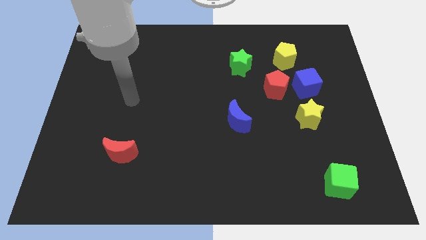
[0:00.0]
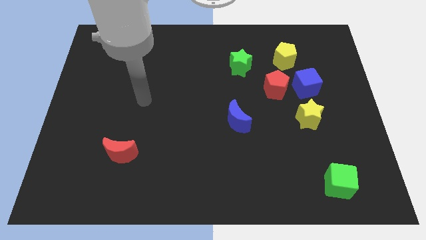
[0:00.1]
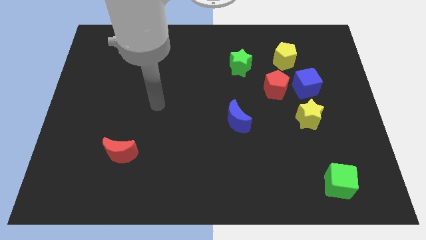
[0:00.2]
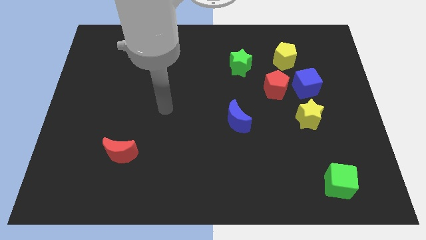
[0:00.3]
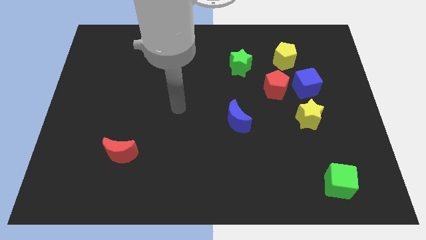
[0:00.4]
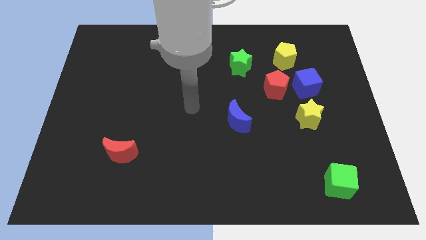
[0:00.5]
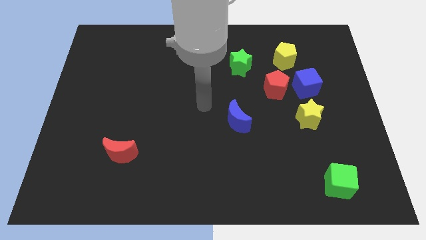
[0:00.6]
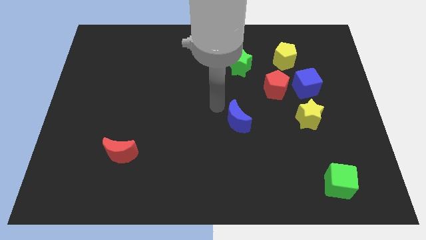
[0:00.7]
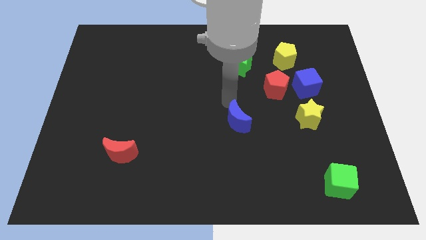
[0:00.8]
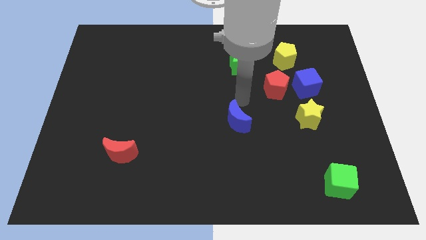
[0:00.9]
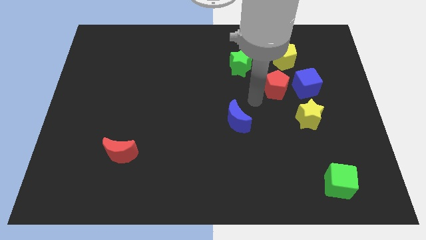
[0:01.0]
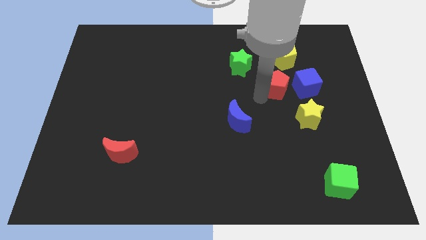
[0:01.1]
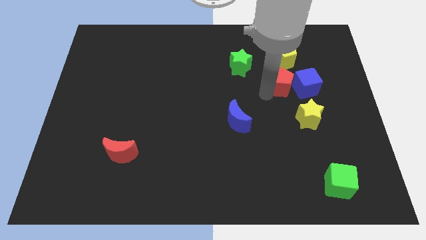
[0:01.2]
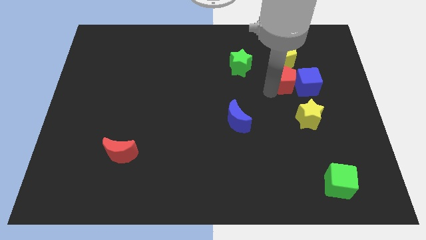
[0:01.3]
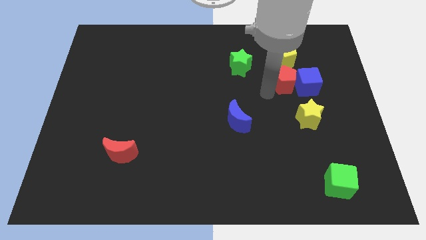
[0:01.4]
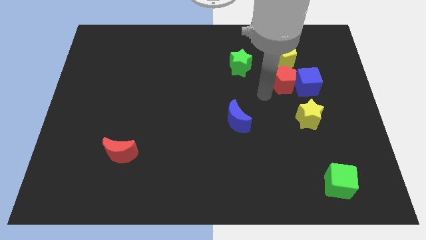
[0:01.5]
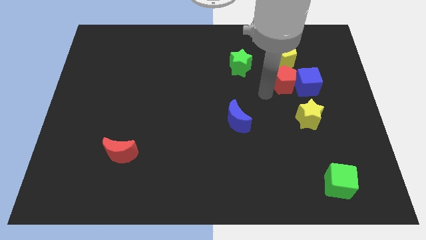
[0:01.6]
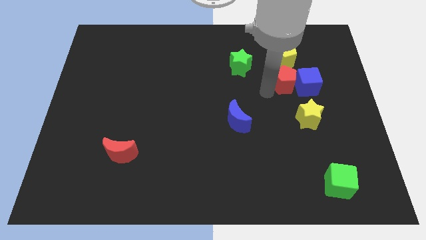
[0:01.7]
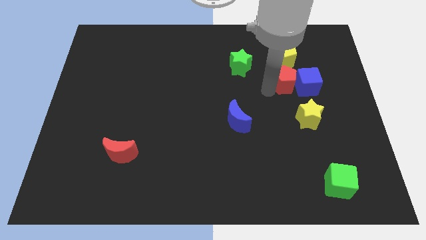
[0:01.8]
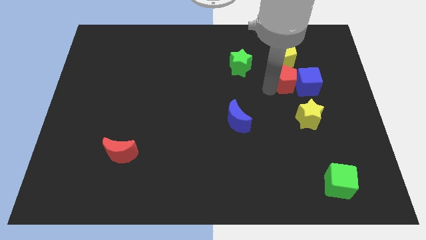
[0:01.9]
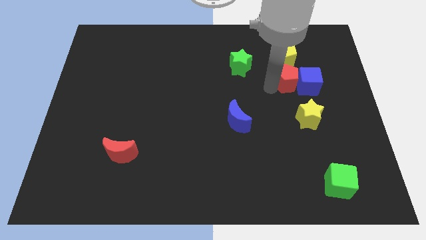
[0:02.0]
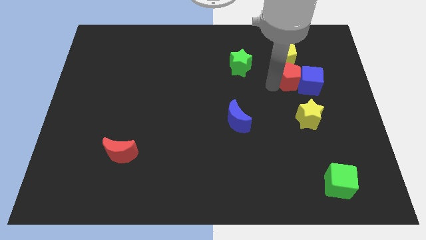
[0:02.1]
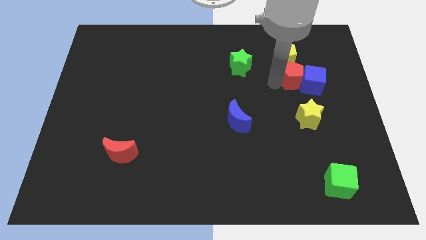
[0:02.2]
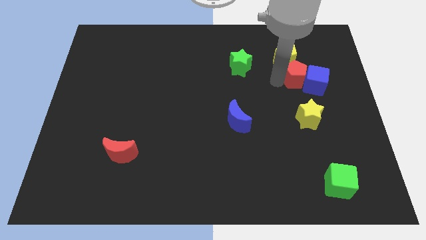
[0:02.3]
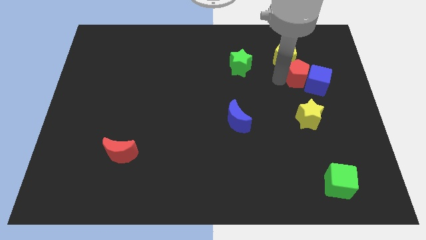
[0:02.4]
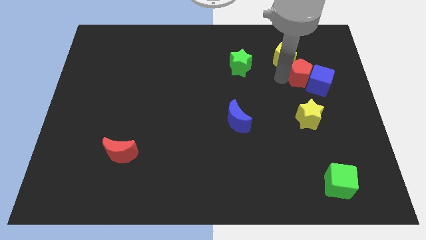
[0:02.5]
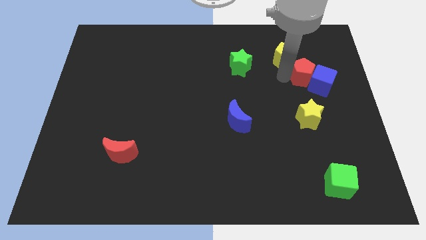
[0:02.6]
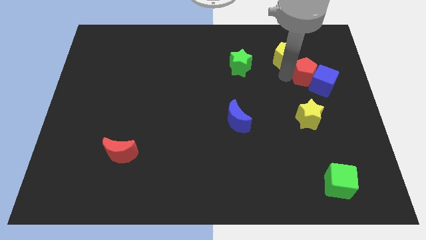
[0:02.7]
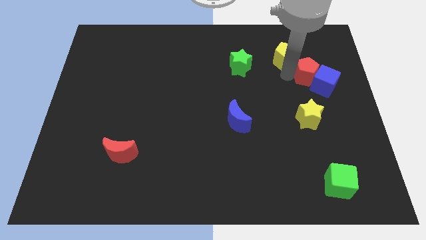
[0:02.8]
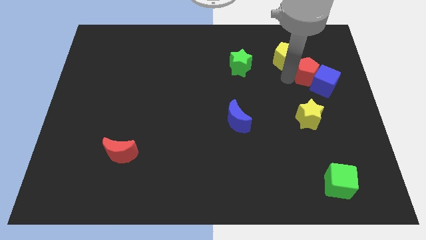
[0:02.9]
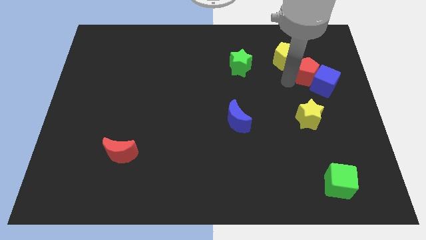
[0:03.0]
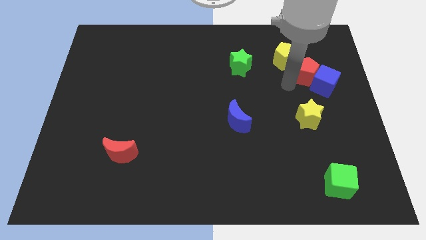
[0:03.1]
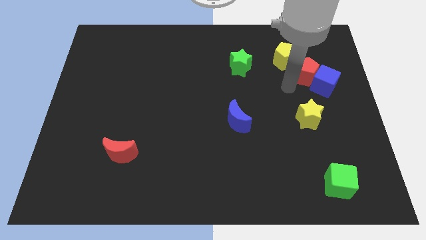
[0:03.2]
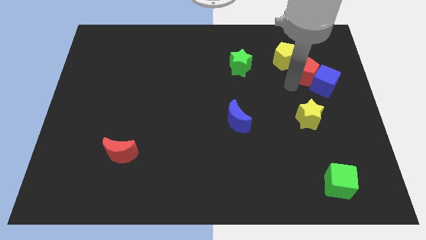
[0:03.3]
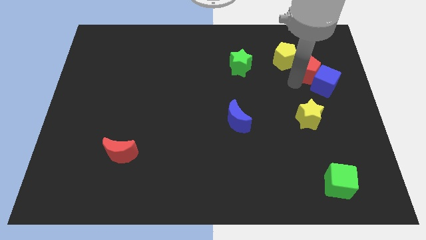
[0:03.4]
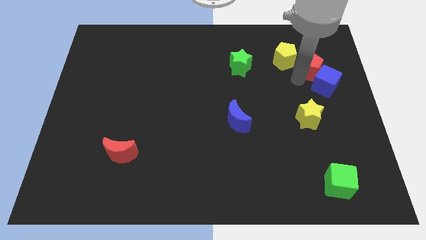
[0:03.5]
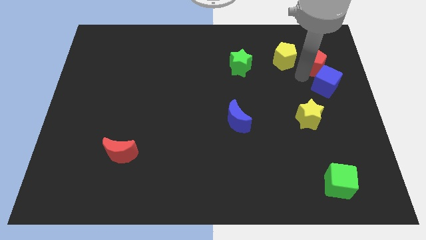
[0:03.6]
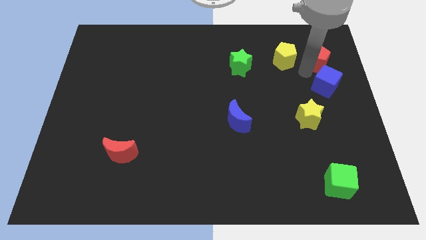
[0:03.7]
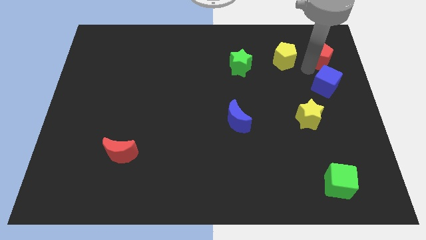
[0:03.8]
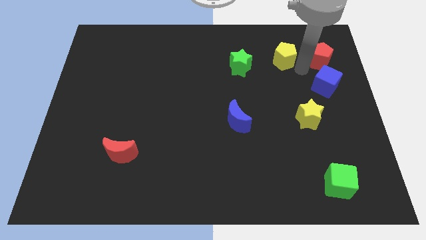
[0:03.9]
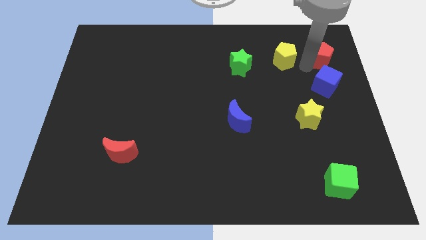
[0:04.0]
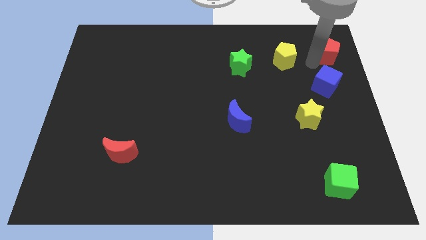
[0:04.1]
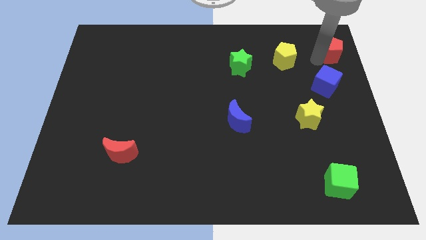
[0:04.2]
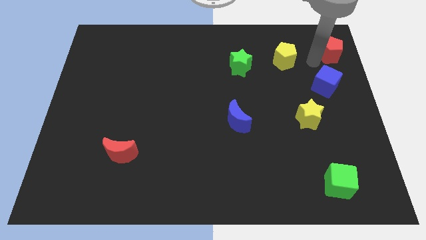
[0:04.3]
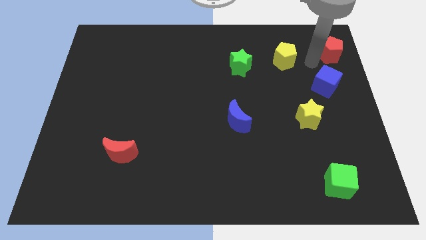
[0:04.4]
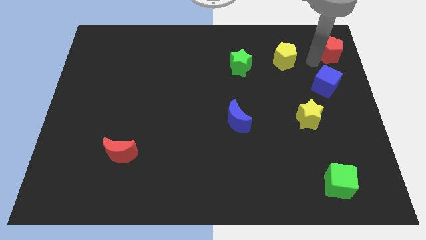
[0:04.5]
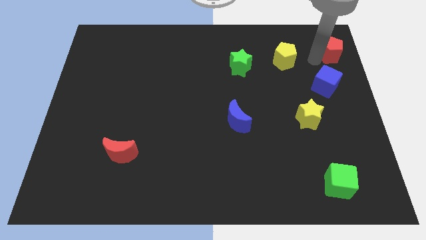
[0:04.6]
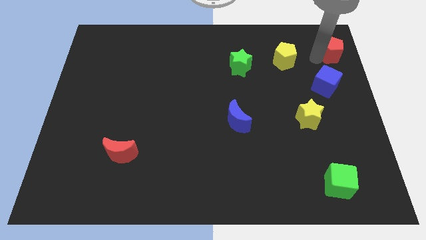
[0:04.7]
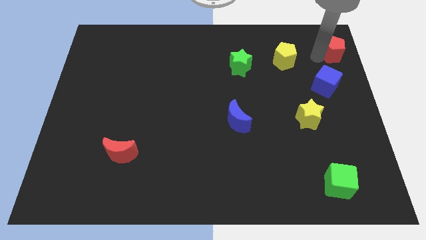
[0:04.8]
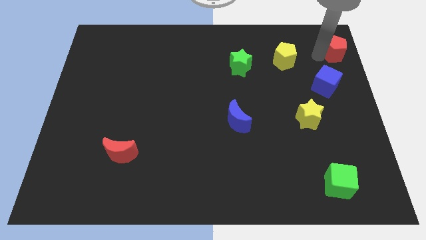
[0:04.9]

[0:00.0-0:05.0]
move the red pentagon to the top right corner

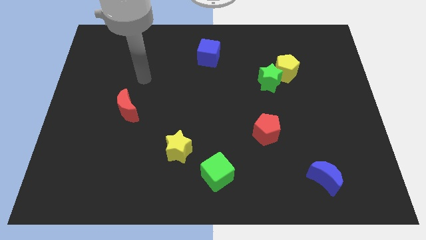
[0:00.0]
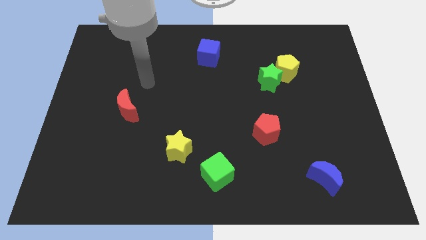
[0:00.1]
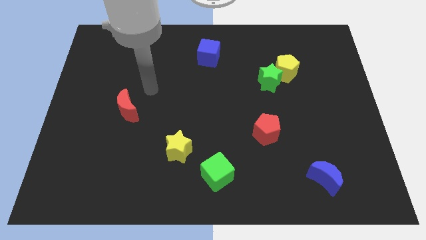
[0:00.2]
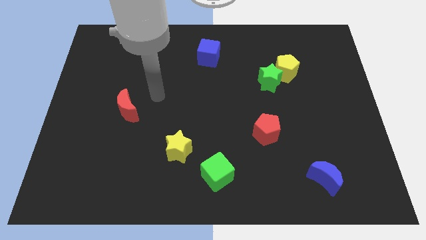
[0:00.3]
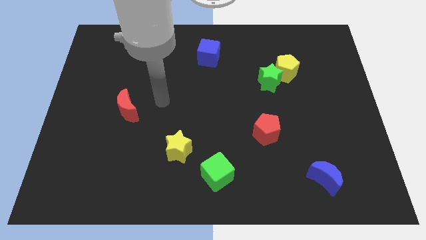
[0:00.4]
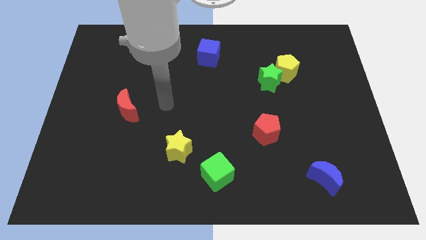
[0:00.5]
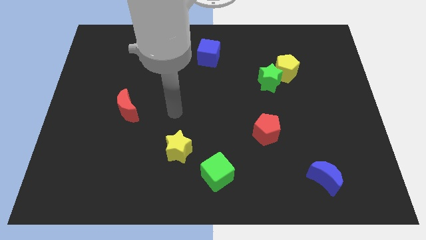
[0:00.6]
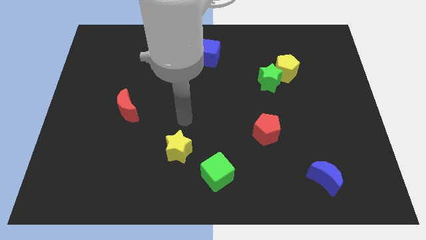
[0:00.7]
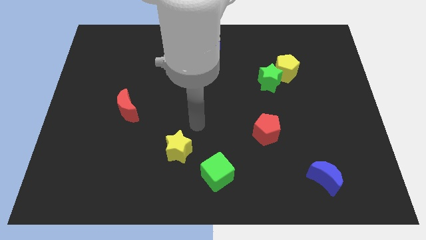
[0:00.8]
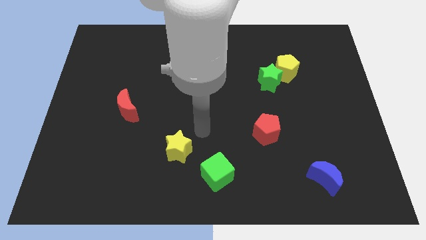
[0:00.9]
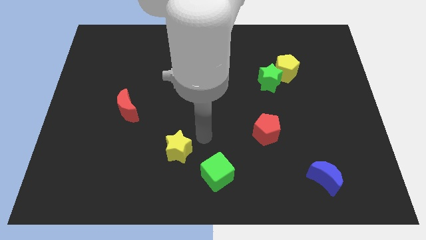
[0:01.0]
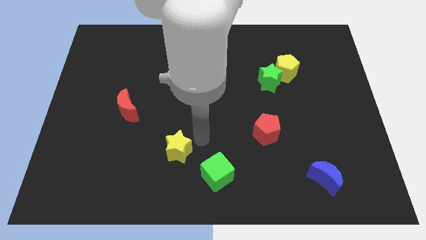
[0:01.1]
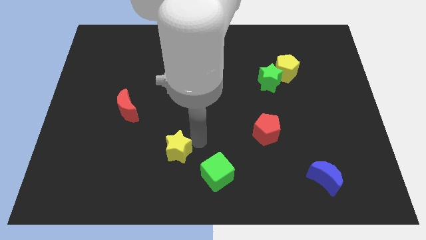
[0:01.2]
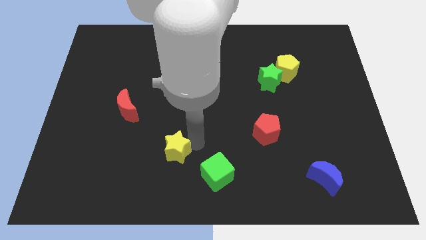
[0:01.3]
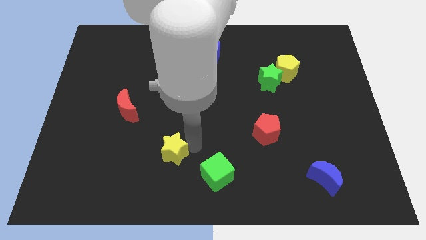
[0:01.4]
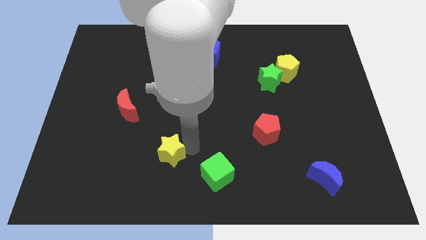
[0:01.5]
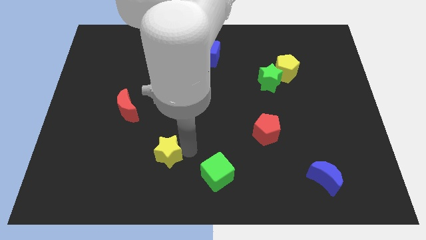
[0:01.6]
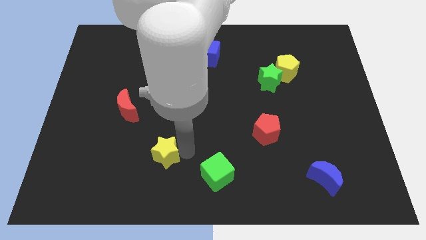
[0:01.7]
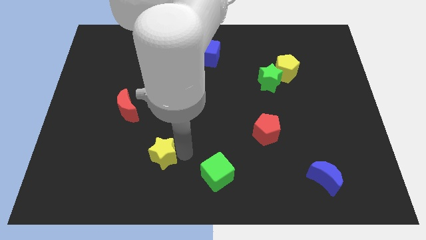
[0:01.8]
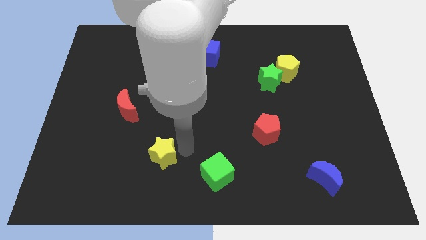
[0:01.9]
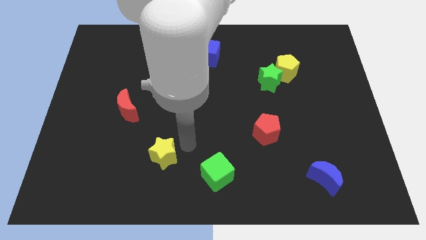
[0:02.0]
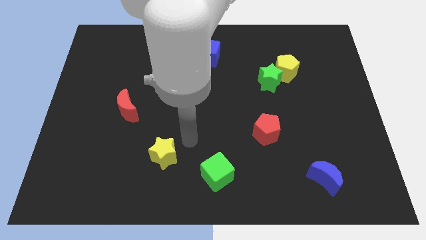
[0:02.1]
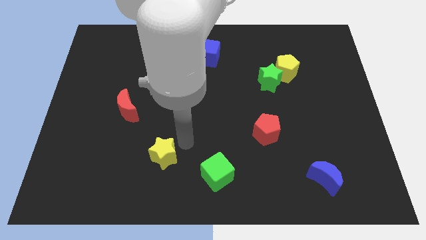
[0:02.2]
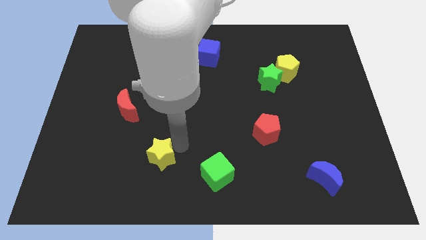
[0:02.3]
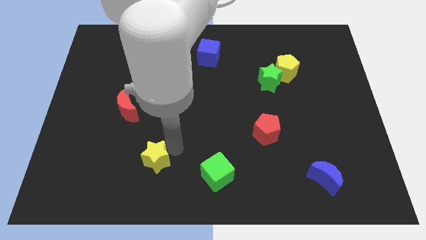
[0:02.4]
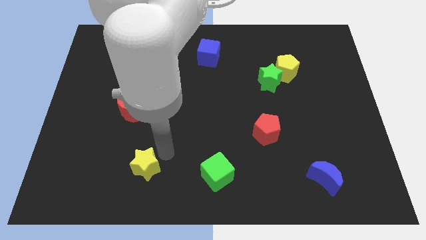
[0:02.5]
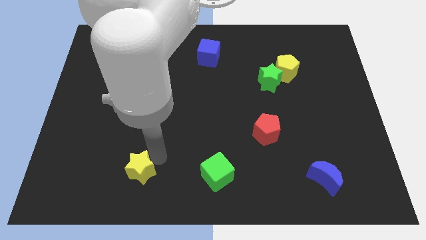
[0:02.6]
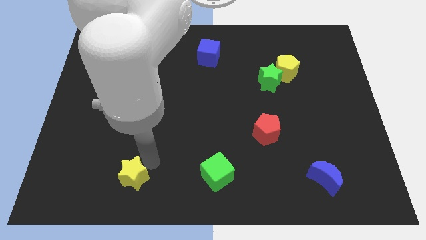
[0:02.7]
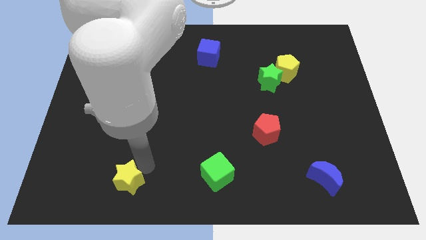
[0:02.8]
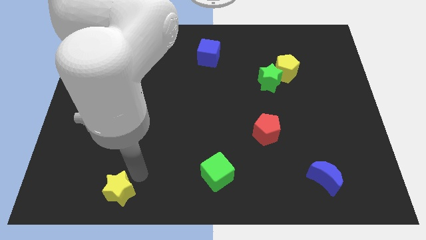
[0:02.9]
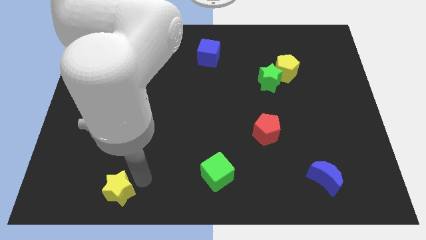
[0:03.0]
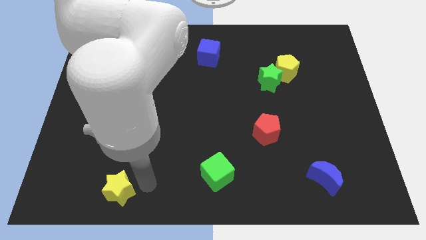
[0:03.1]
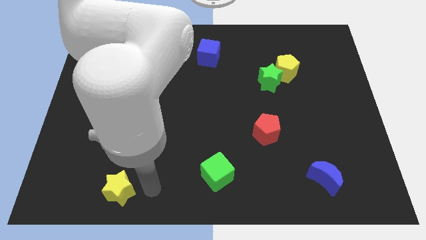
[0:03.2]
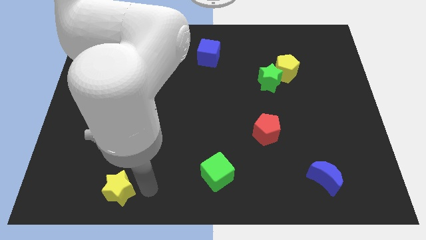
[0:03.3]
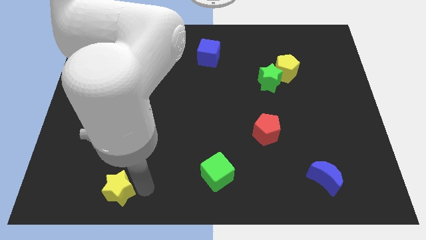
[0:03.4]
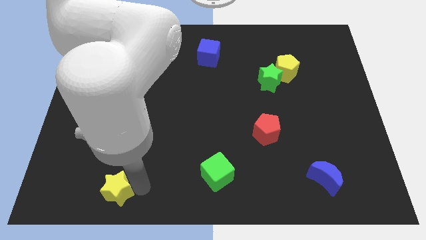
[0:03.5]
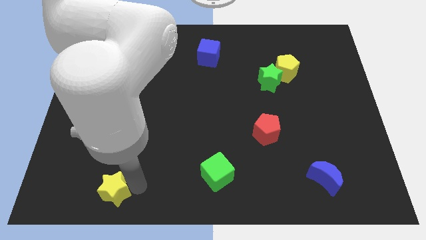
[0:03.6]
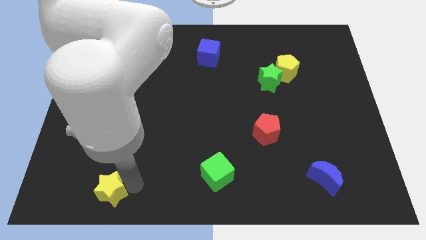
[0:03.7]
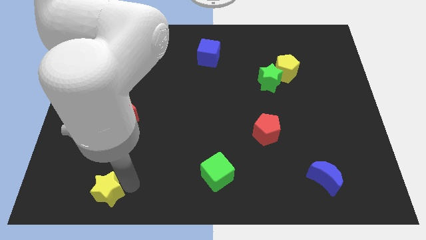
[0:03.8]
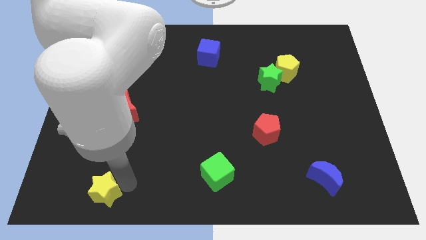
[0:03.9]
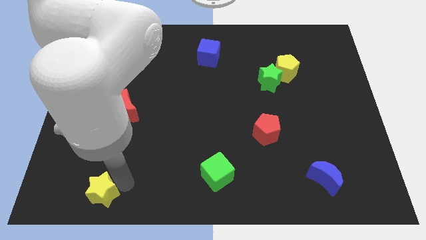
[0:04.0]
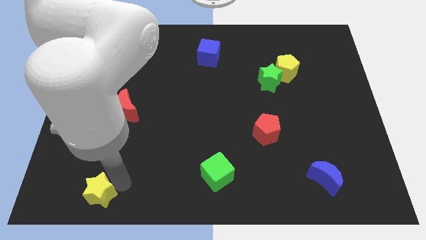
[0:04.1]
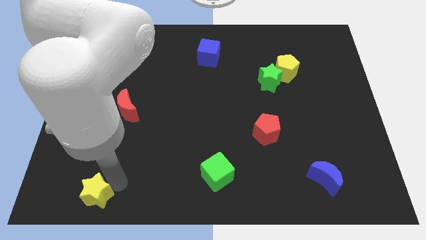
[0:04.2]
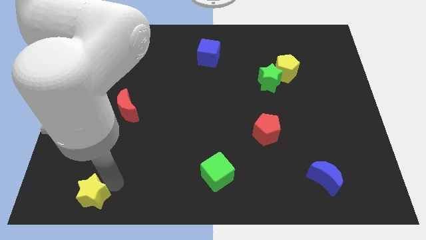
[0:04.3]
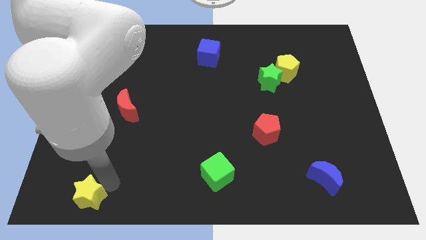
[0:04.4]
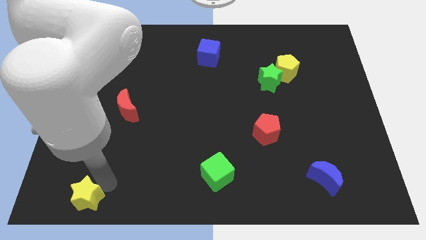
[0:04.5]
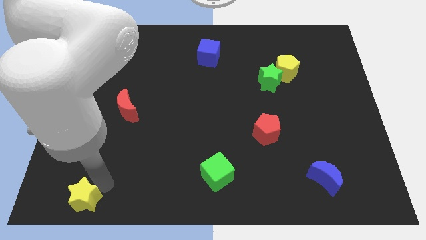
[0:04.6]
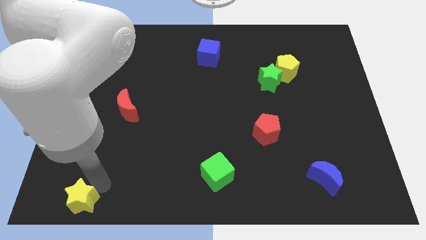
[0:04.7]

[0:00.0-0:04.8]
slide the yellow star to the bottom left corner
